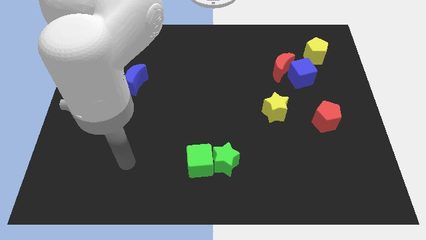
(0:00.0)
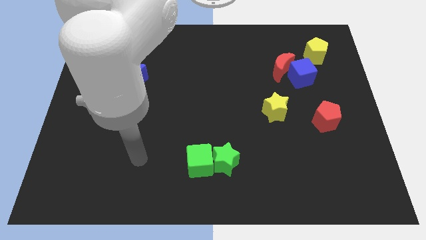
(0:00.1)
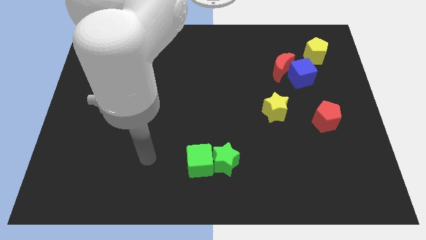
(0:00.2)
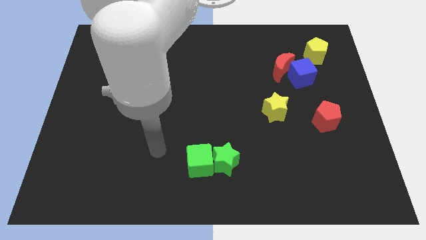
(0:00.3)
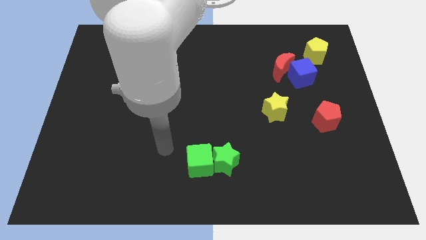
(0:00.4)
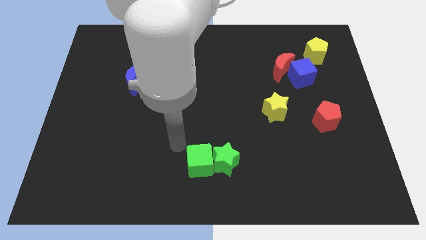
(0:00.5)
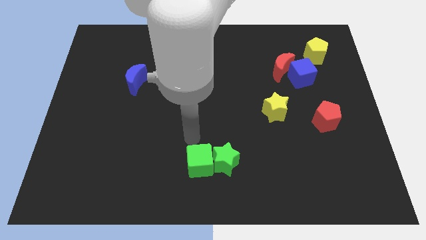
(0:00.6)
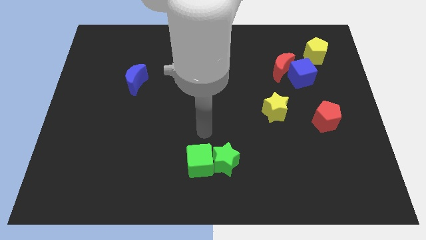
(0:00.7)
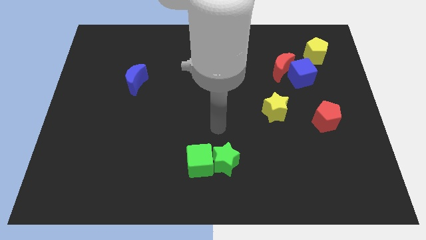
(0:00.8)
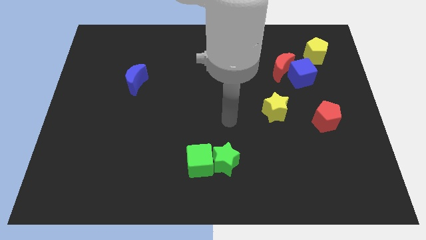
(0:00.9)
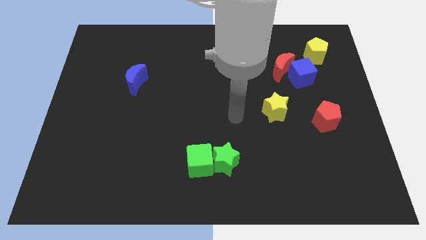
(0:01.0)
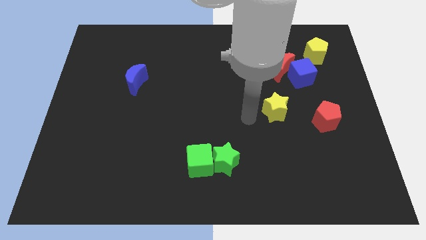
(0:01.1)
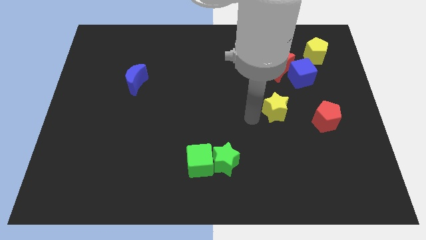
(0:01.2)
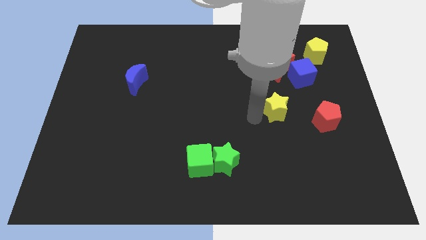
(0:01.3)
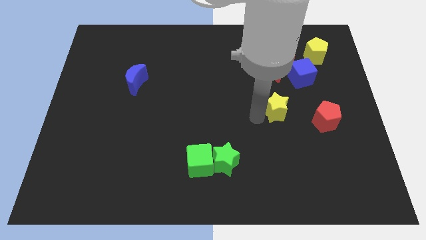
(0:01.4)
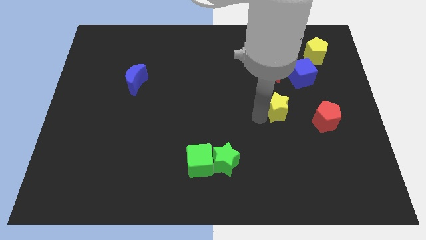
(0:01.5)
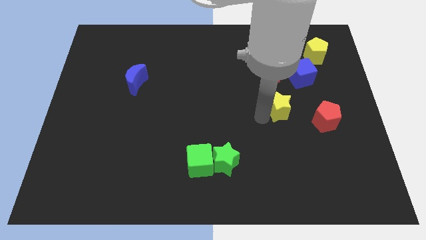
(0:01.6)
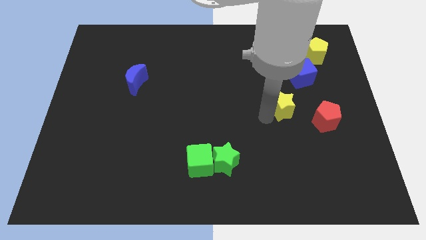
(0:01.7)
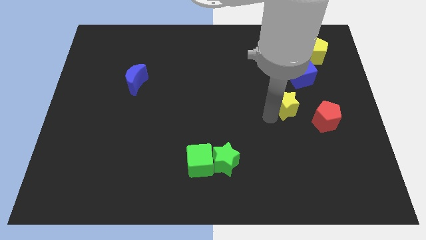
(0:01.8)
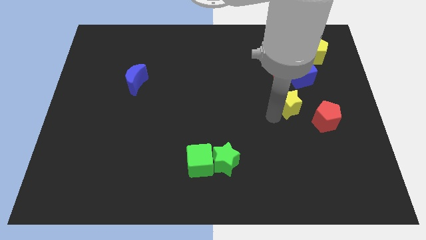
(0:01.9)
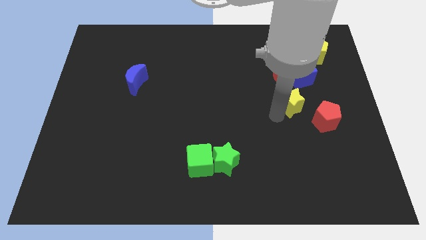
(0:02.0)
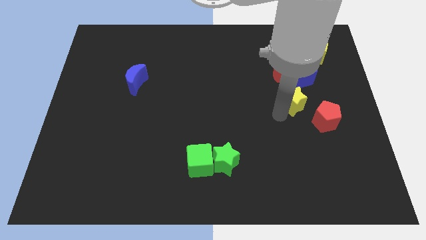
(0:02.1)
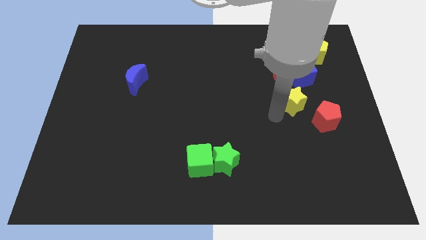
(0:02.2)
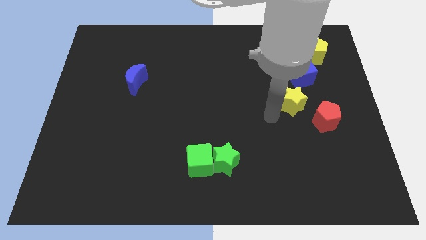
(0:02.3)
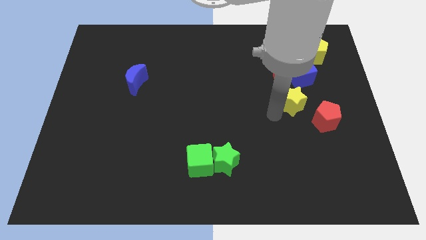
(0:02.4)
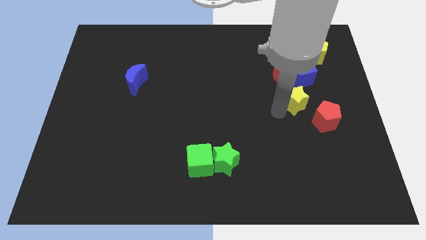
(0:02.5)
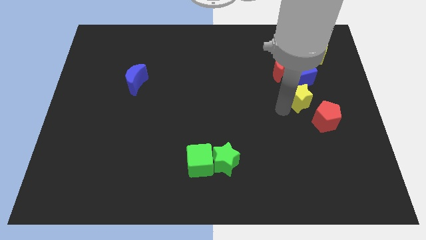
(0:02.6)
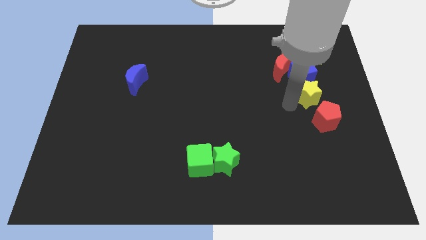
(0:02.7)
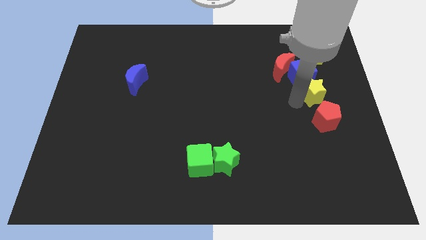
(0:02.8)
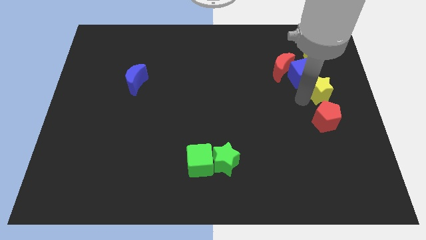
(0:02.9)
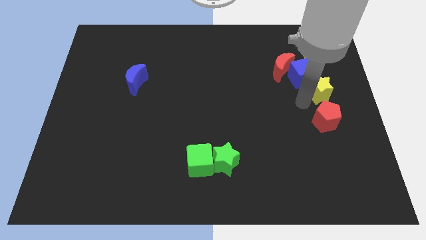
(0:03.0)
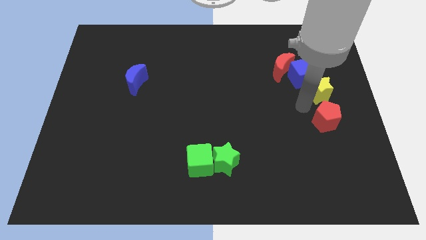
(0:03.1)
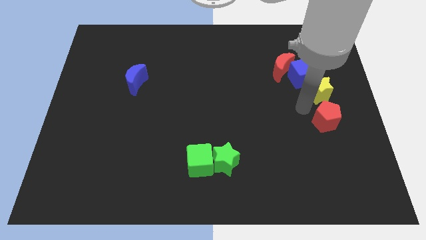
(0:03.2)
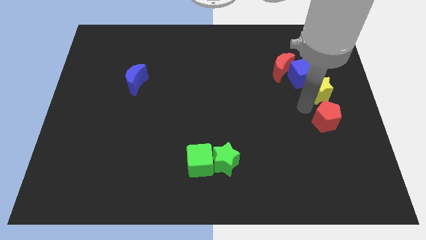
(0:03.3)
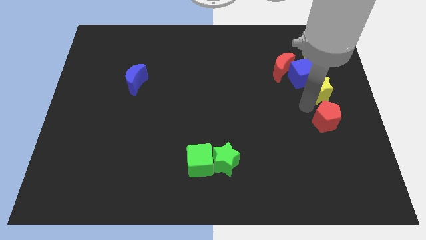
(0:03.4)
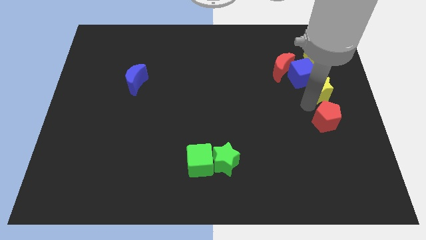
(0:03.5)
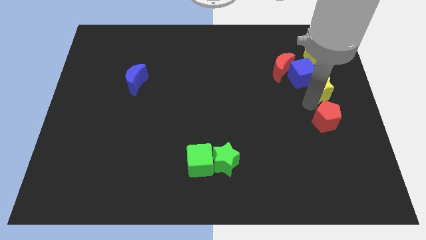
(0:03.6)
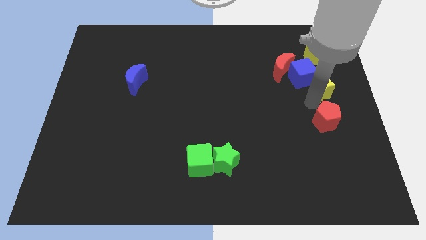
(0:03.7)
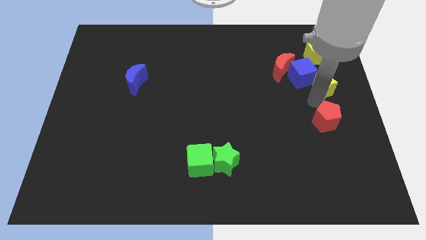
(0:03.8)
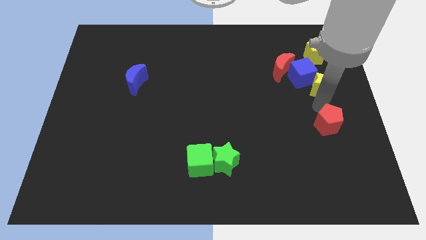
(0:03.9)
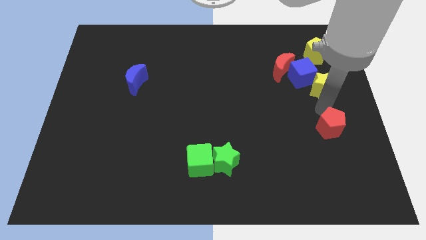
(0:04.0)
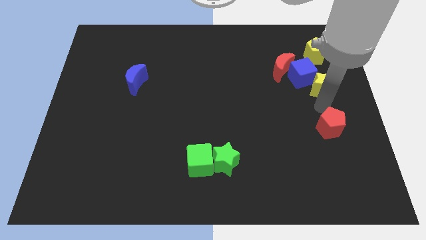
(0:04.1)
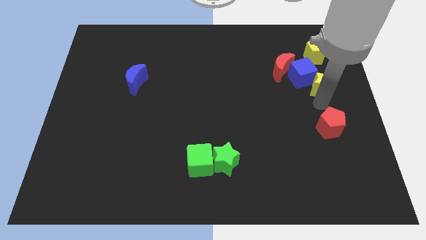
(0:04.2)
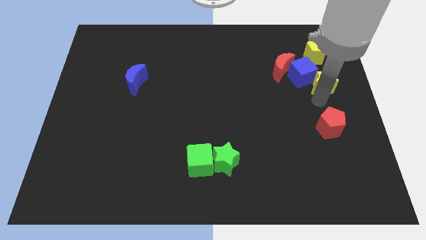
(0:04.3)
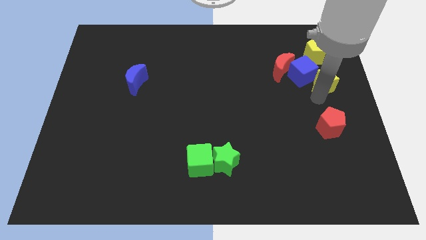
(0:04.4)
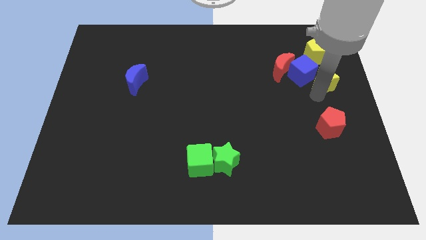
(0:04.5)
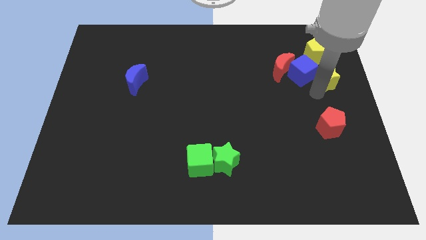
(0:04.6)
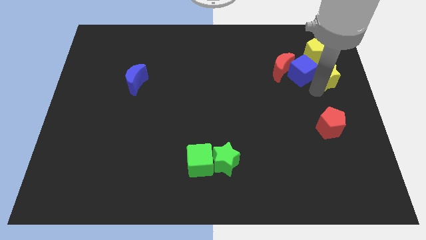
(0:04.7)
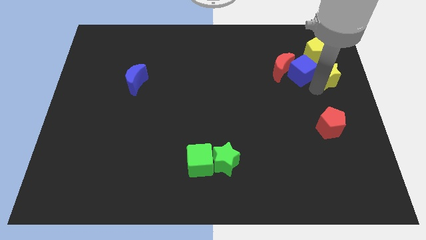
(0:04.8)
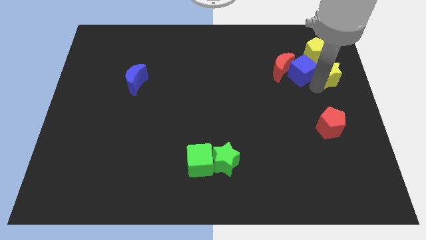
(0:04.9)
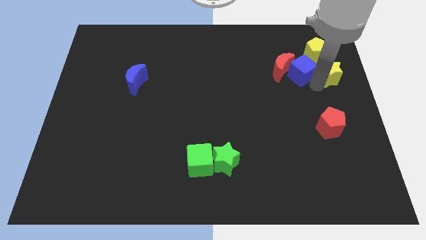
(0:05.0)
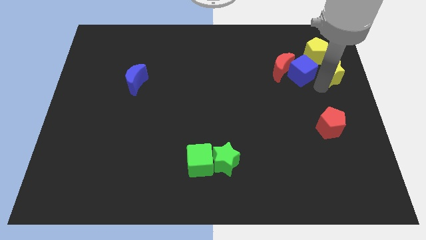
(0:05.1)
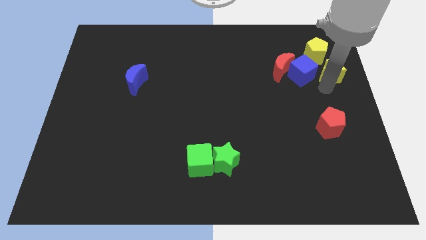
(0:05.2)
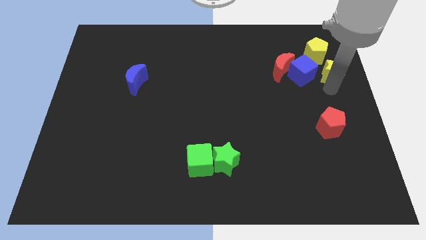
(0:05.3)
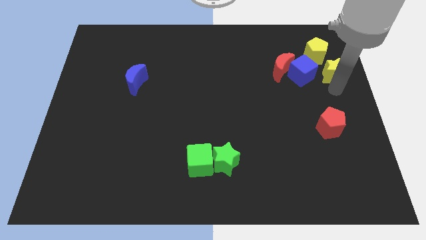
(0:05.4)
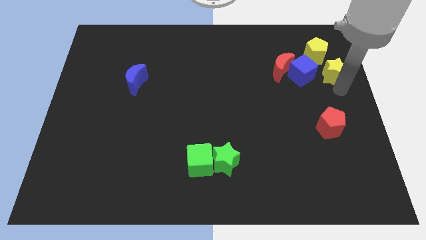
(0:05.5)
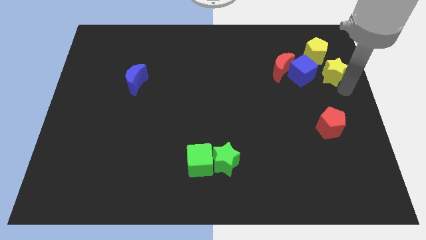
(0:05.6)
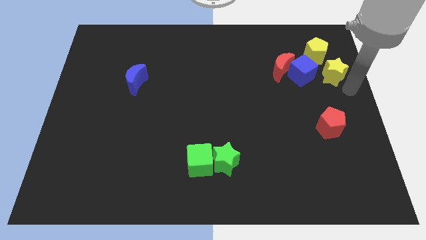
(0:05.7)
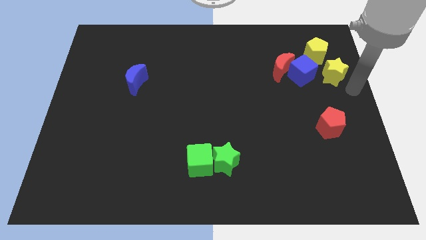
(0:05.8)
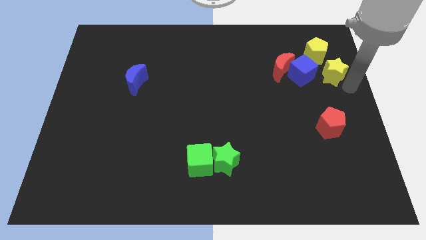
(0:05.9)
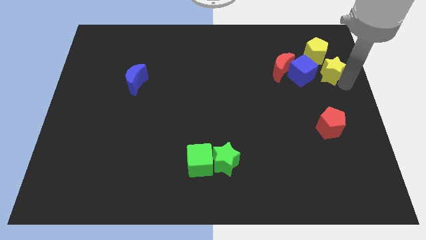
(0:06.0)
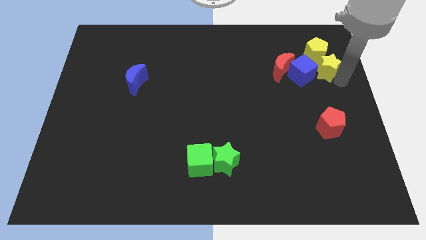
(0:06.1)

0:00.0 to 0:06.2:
push the yellow star close to the yellow pentagon
